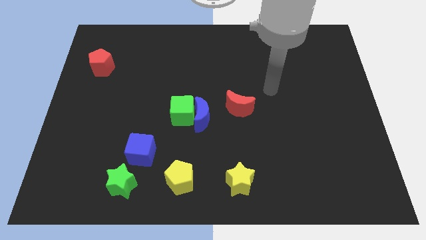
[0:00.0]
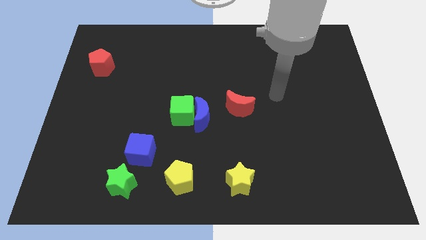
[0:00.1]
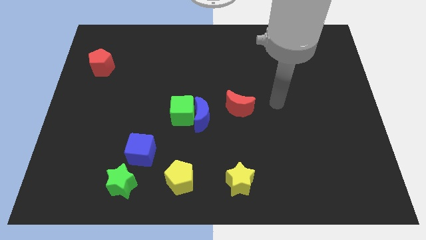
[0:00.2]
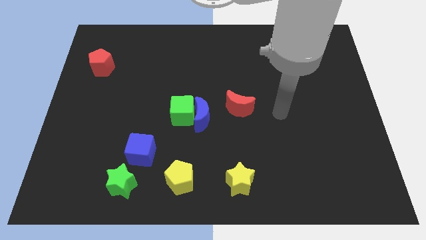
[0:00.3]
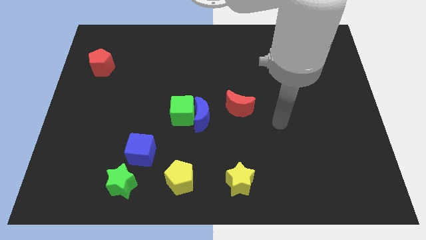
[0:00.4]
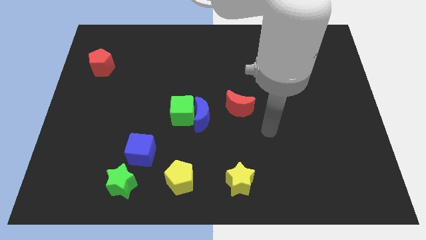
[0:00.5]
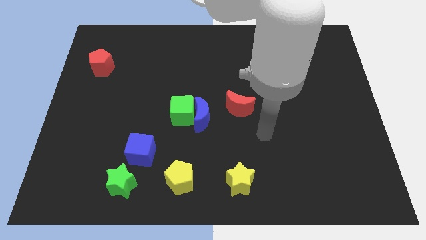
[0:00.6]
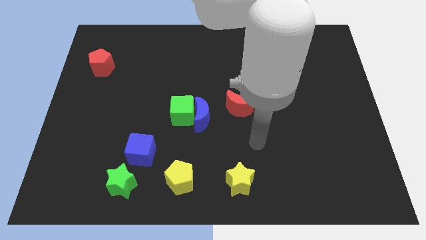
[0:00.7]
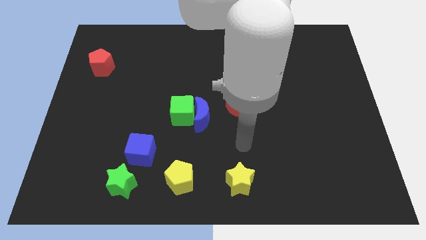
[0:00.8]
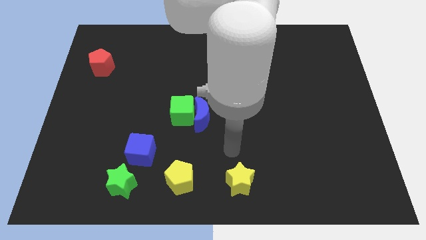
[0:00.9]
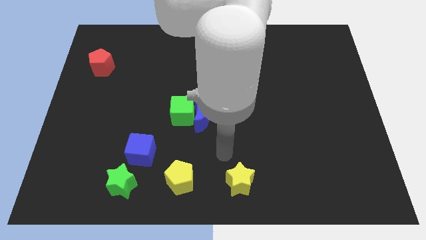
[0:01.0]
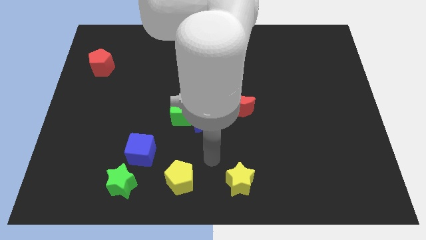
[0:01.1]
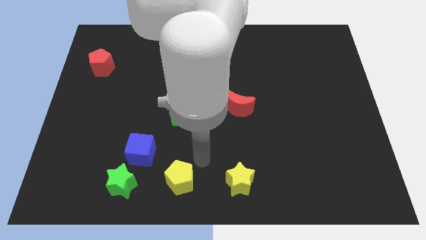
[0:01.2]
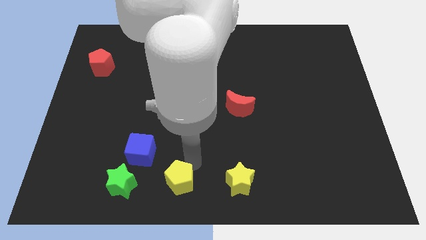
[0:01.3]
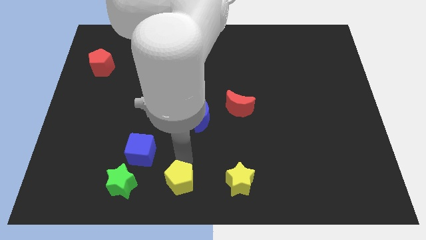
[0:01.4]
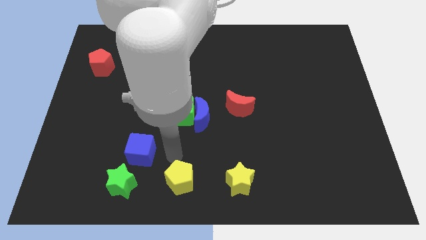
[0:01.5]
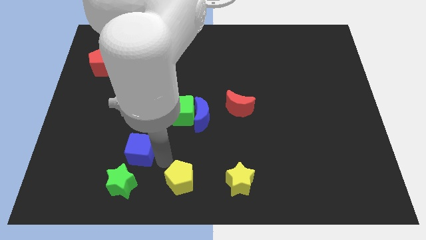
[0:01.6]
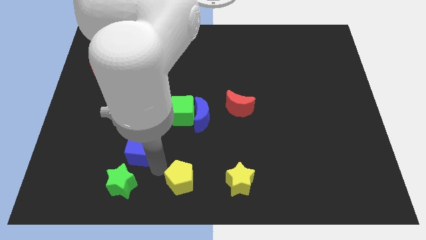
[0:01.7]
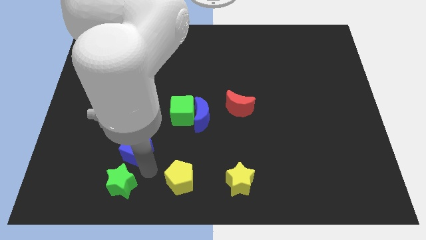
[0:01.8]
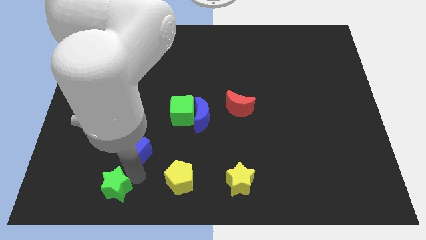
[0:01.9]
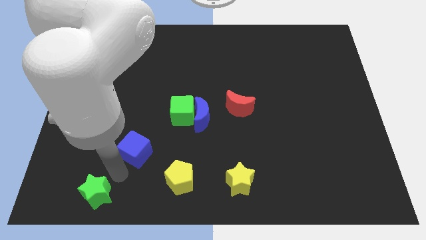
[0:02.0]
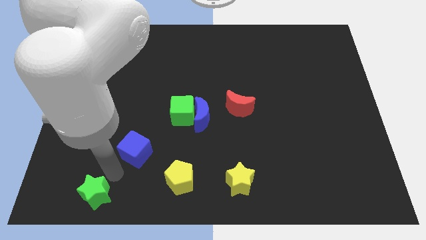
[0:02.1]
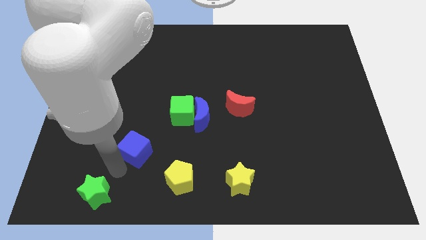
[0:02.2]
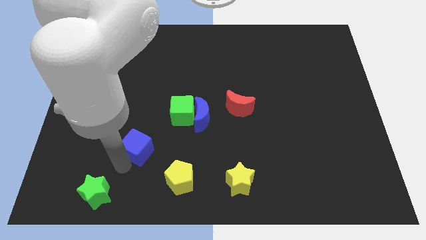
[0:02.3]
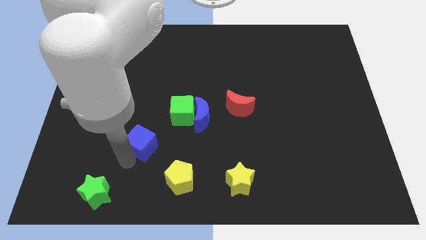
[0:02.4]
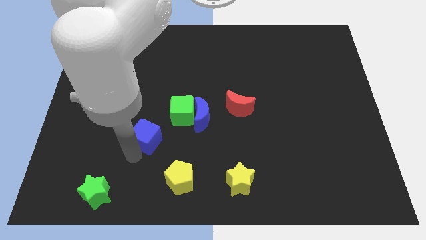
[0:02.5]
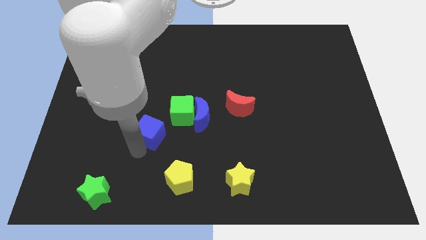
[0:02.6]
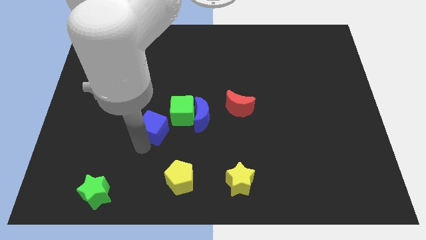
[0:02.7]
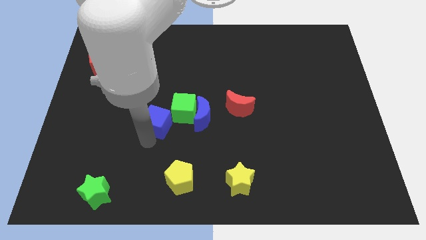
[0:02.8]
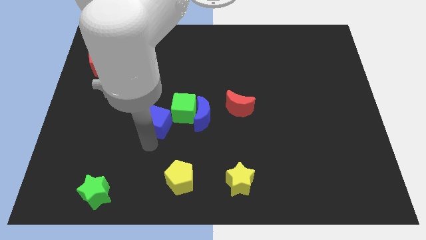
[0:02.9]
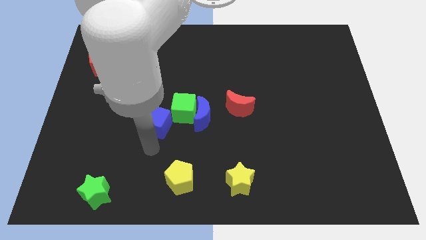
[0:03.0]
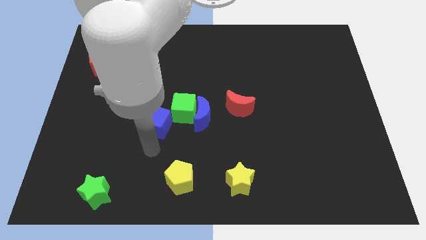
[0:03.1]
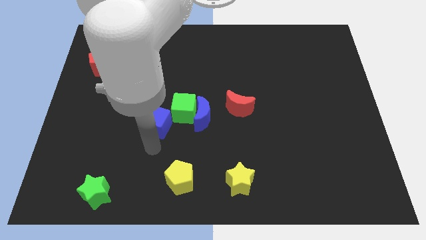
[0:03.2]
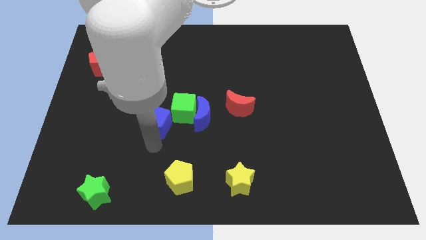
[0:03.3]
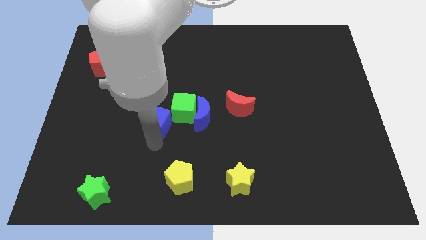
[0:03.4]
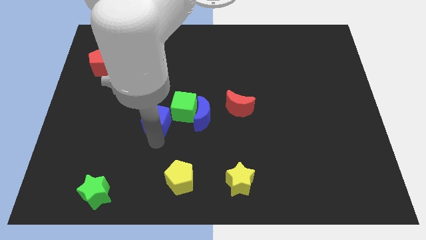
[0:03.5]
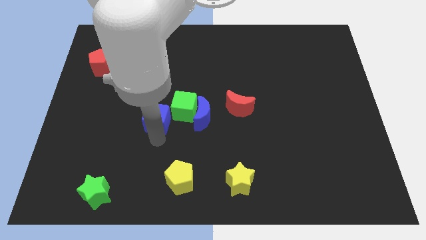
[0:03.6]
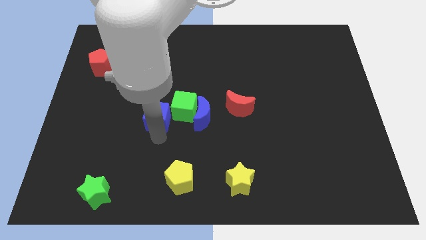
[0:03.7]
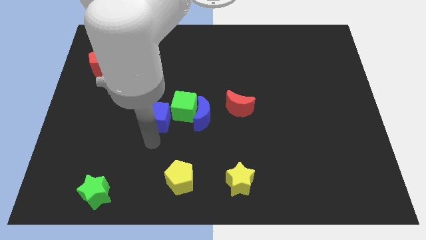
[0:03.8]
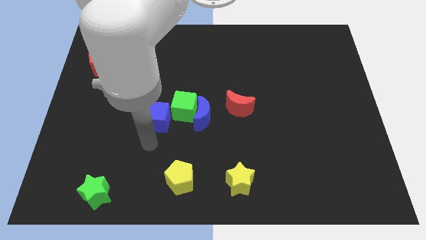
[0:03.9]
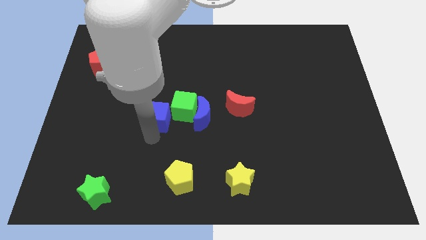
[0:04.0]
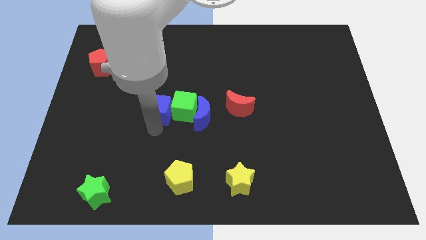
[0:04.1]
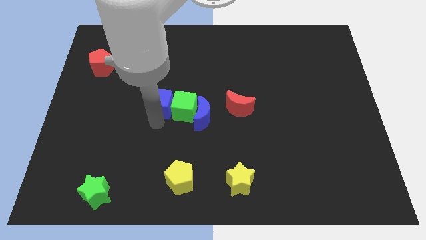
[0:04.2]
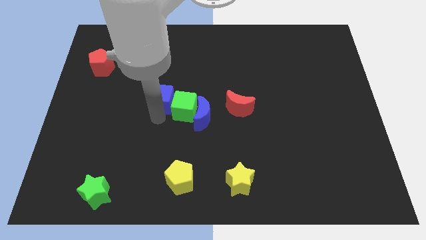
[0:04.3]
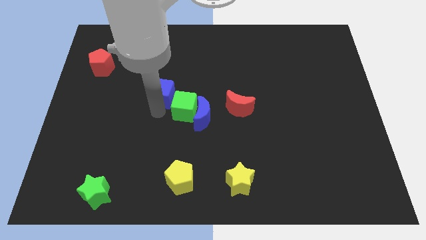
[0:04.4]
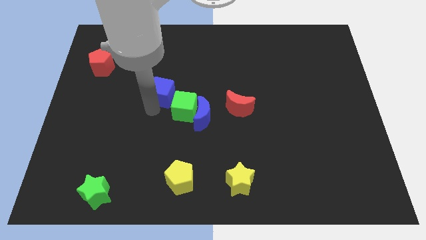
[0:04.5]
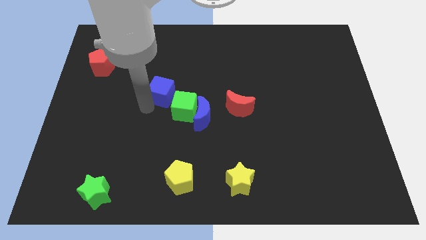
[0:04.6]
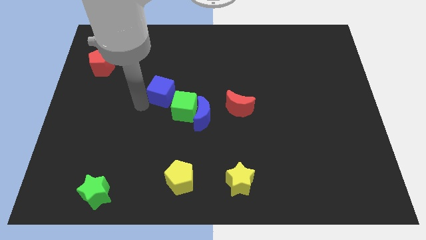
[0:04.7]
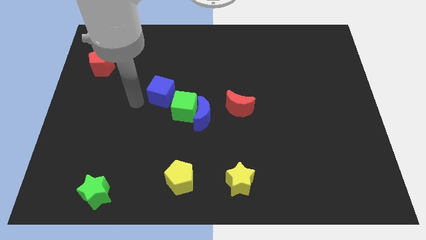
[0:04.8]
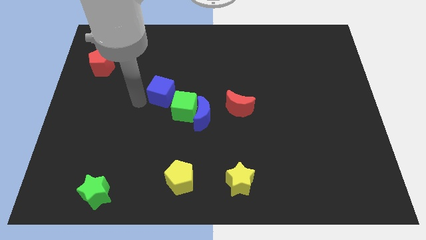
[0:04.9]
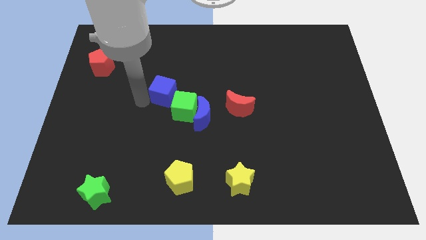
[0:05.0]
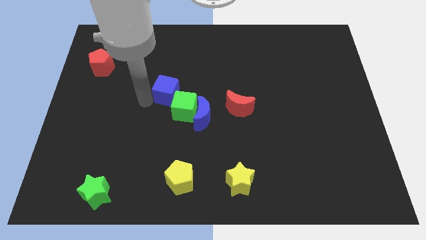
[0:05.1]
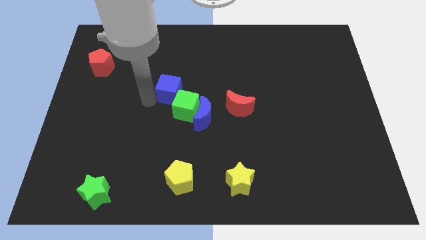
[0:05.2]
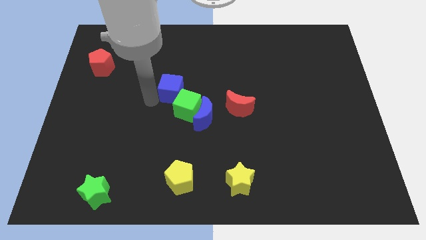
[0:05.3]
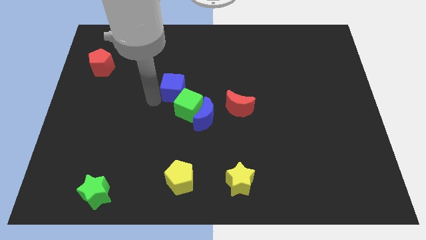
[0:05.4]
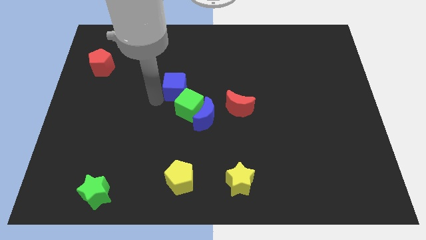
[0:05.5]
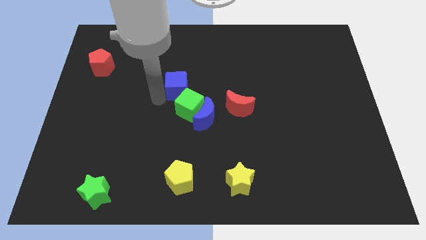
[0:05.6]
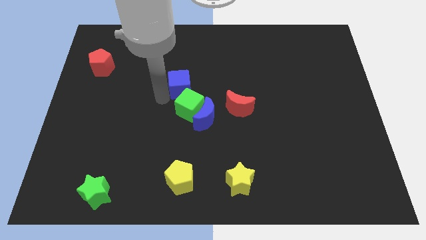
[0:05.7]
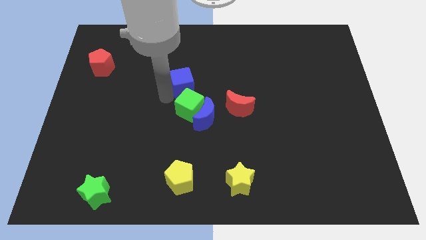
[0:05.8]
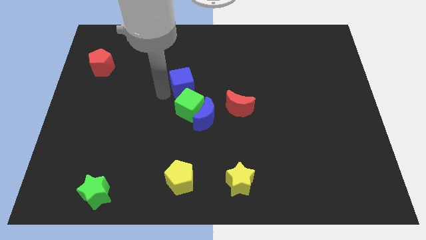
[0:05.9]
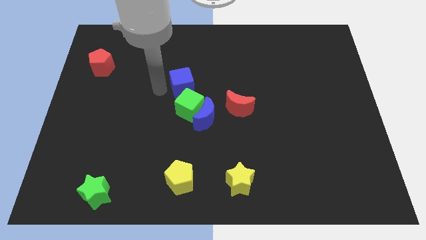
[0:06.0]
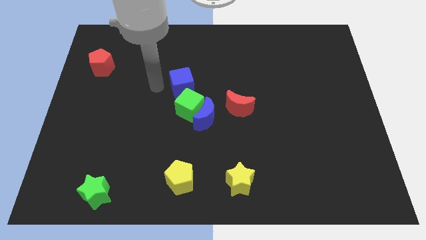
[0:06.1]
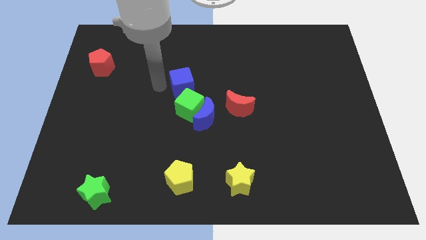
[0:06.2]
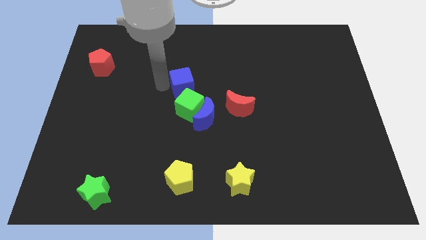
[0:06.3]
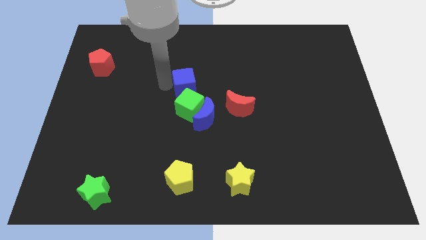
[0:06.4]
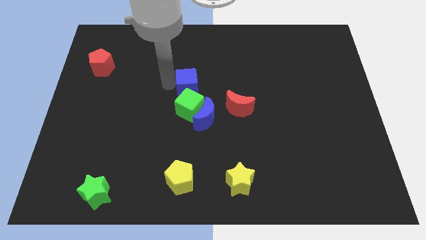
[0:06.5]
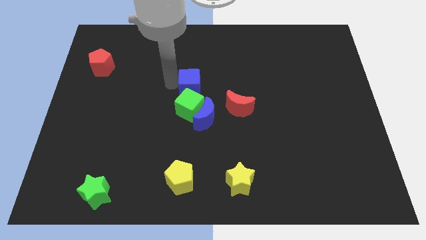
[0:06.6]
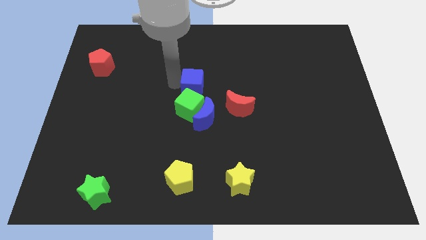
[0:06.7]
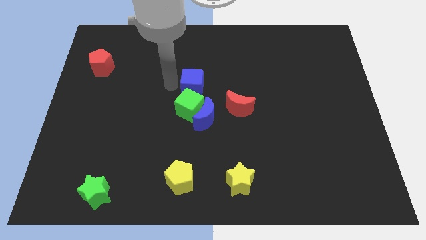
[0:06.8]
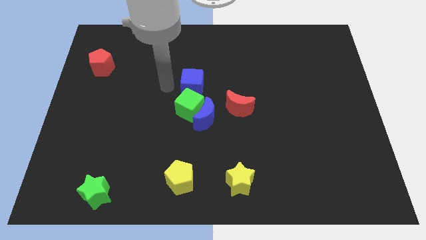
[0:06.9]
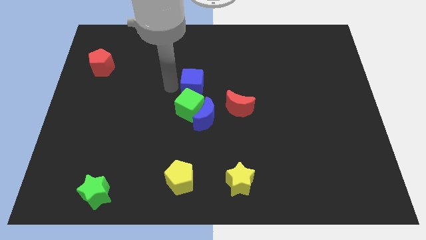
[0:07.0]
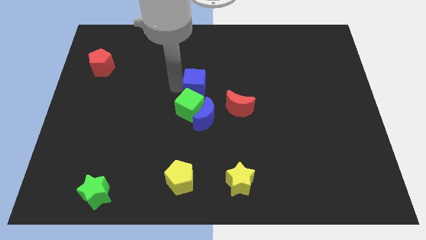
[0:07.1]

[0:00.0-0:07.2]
move the blue cube upwards and right

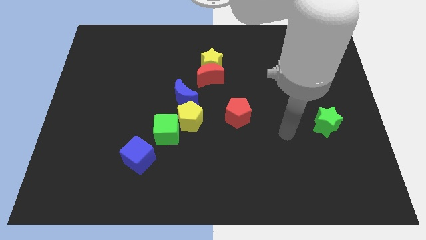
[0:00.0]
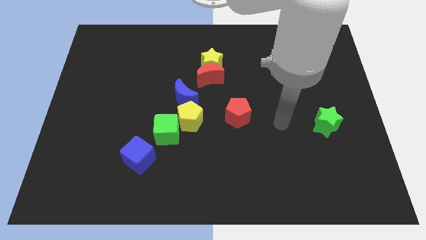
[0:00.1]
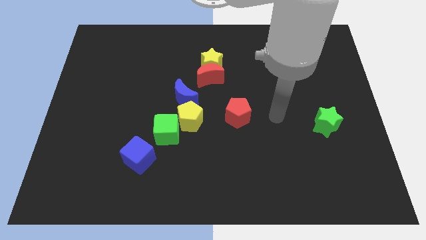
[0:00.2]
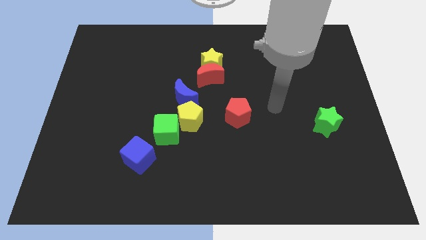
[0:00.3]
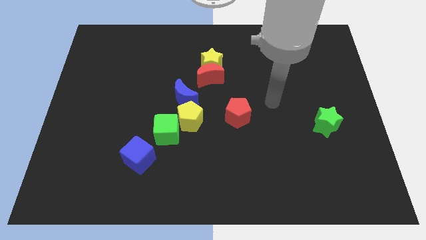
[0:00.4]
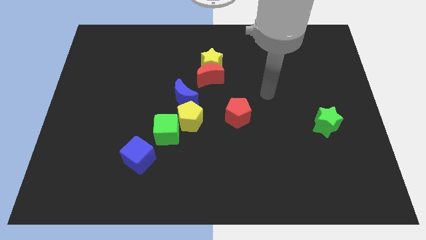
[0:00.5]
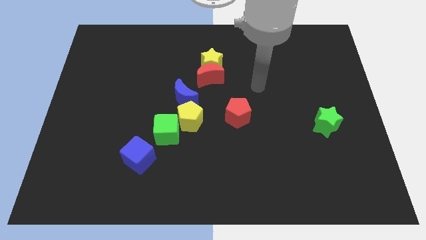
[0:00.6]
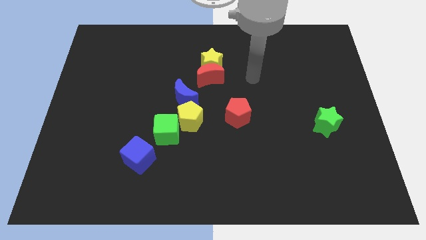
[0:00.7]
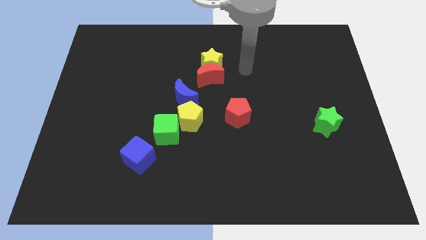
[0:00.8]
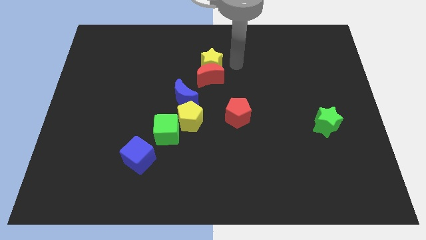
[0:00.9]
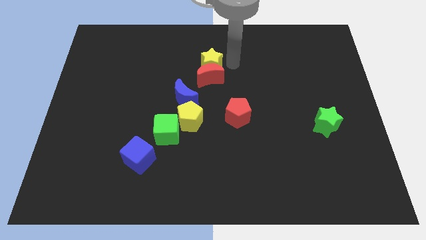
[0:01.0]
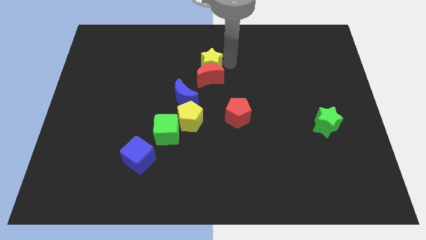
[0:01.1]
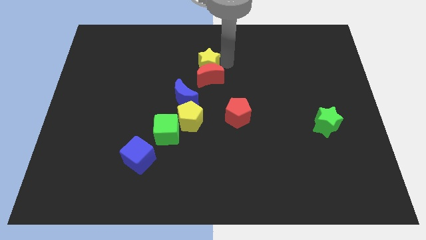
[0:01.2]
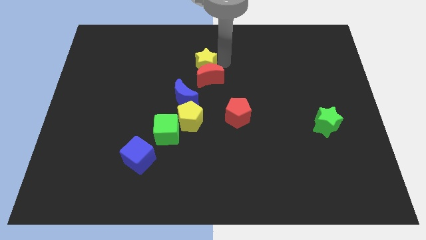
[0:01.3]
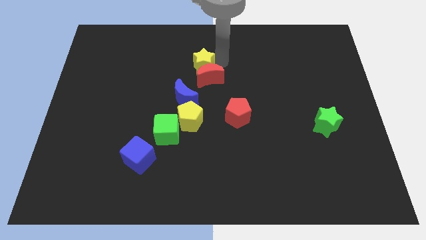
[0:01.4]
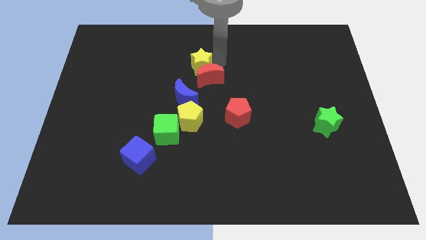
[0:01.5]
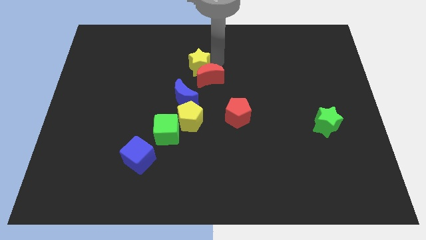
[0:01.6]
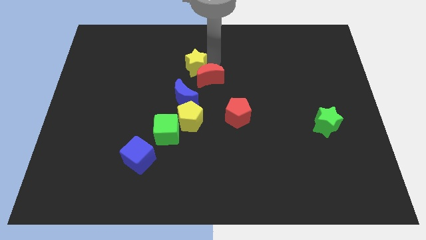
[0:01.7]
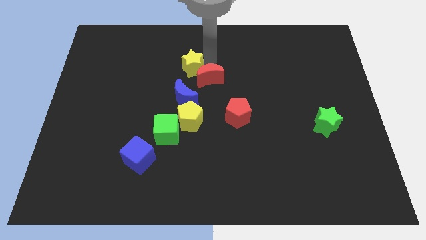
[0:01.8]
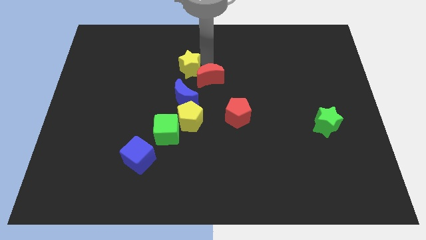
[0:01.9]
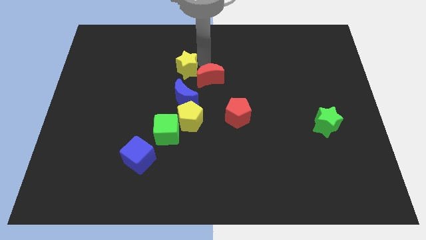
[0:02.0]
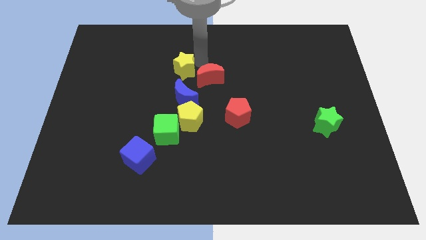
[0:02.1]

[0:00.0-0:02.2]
slide the yellow star somewhat left
